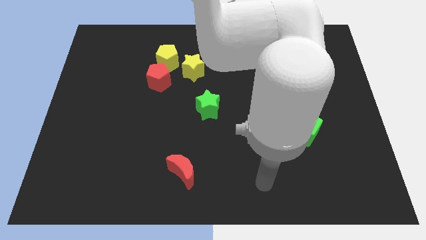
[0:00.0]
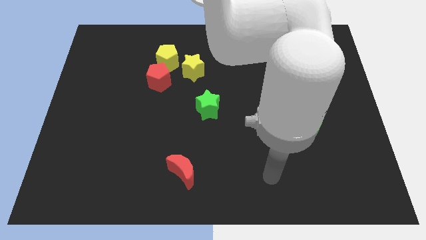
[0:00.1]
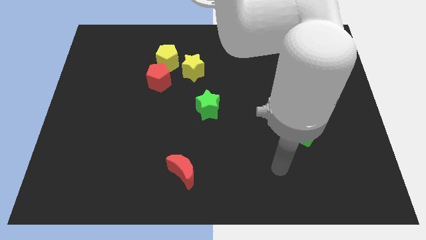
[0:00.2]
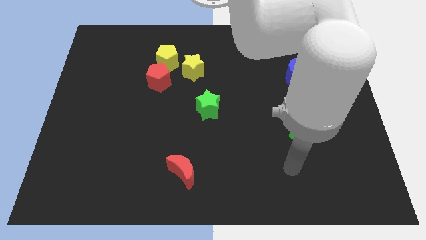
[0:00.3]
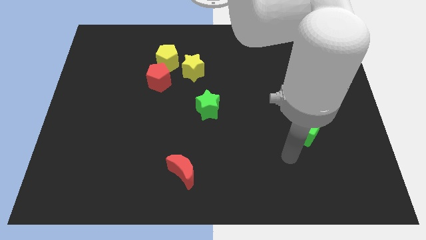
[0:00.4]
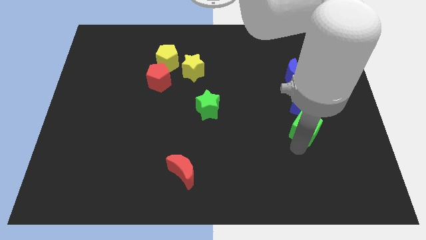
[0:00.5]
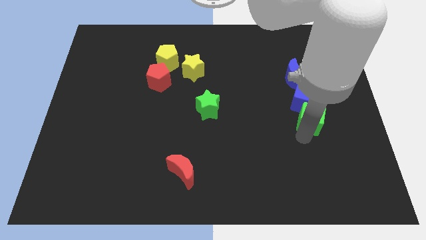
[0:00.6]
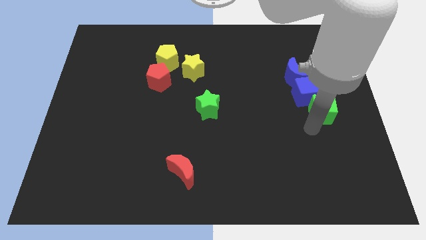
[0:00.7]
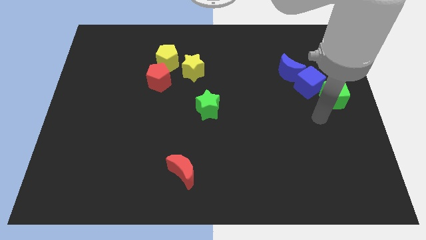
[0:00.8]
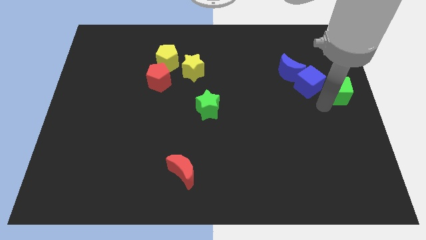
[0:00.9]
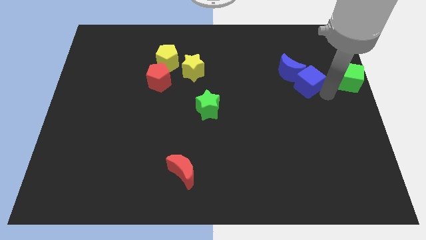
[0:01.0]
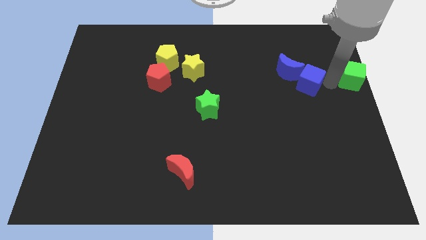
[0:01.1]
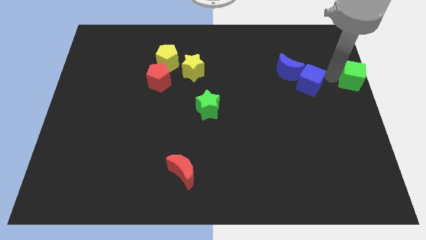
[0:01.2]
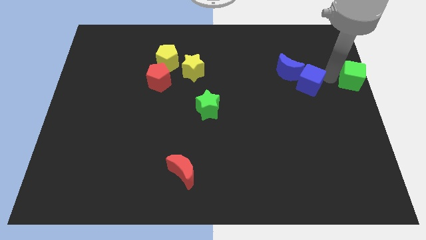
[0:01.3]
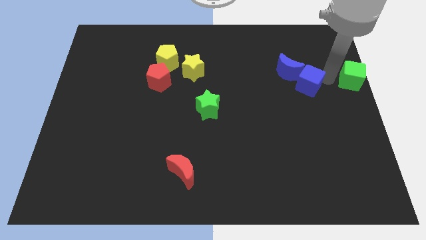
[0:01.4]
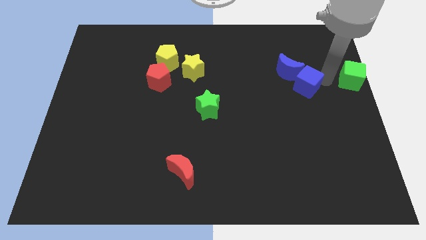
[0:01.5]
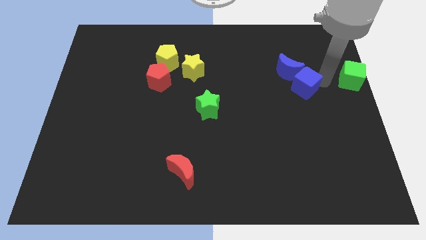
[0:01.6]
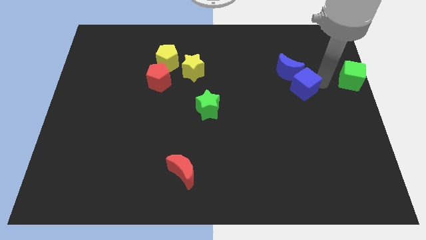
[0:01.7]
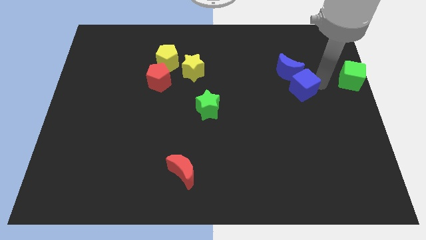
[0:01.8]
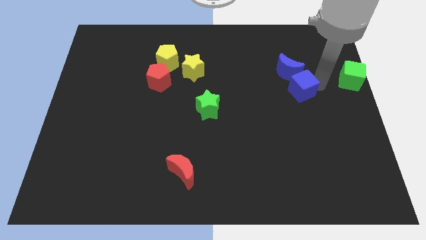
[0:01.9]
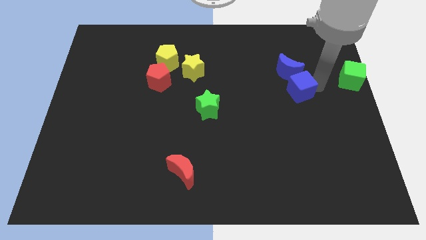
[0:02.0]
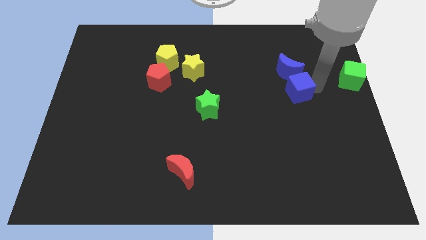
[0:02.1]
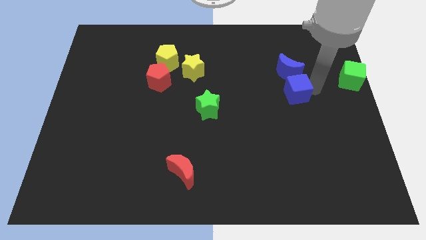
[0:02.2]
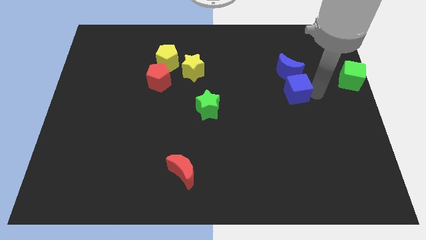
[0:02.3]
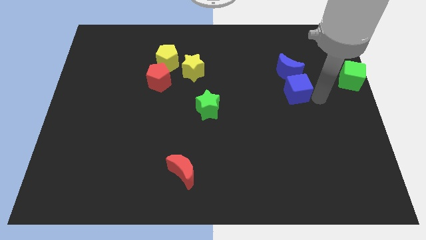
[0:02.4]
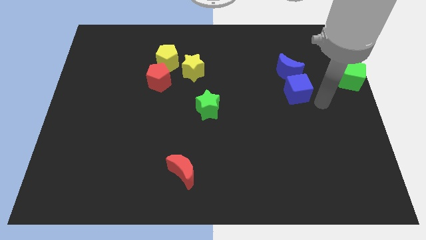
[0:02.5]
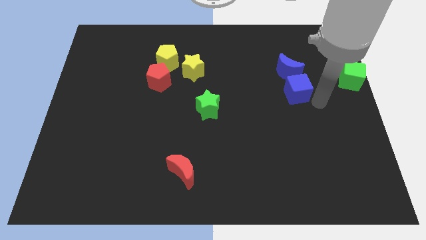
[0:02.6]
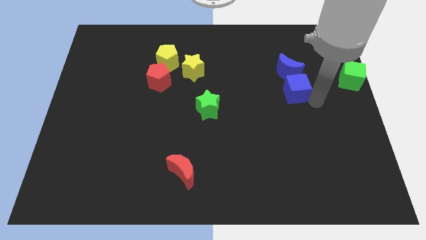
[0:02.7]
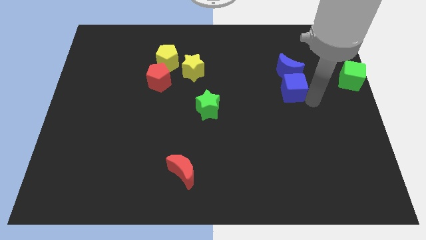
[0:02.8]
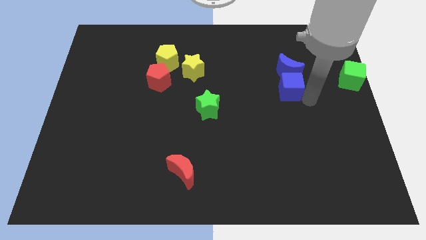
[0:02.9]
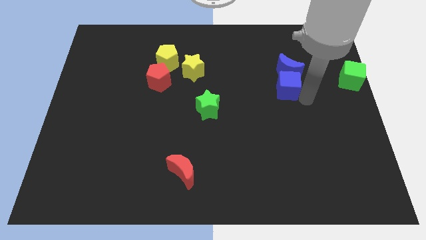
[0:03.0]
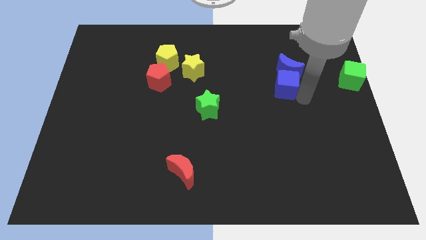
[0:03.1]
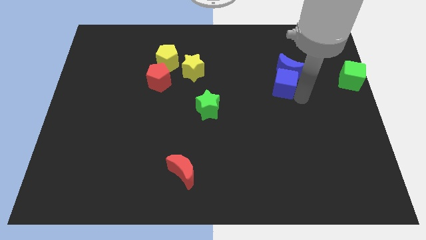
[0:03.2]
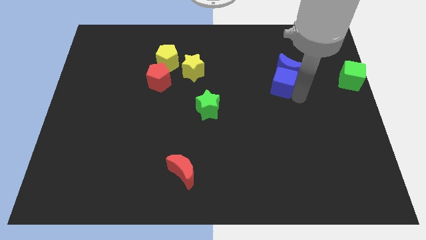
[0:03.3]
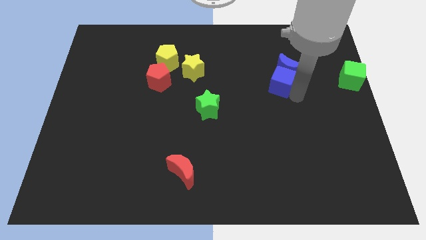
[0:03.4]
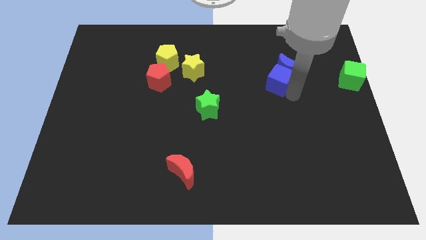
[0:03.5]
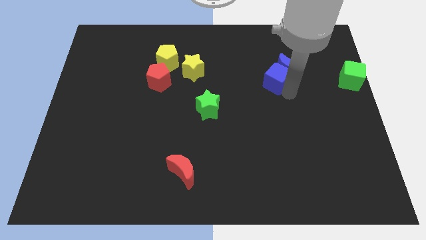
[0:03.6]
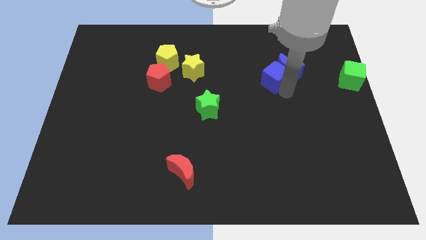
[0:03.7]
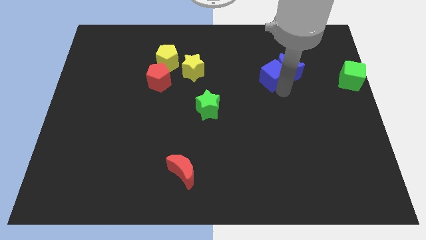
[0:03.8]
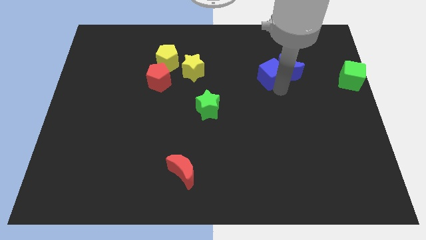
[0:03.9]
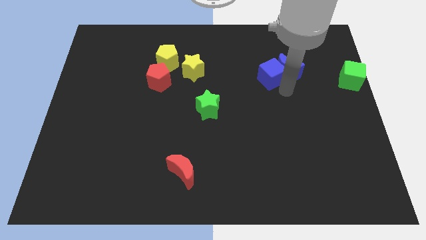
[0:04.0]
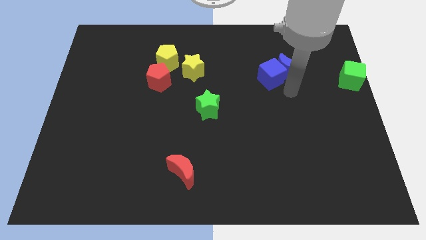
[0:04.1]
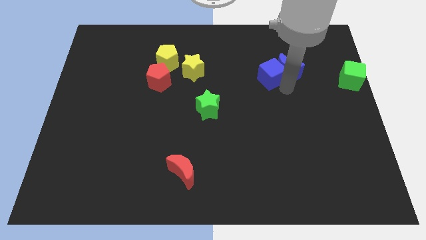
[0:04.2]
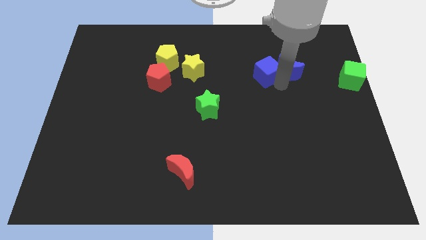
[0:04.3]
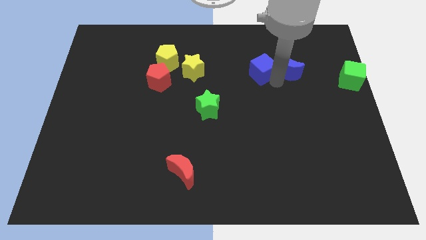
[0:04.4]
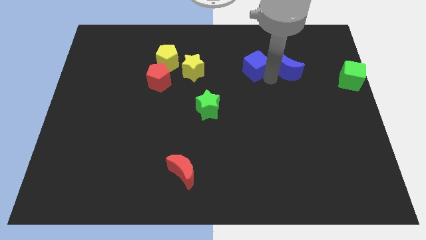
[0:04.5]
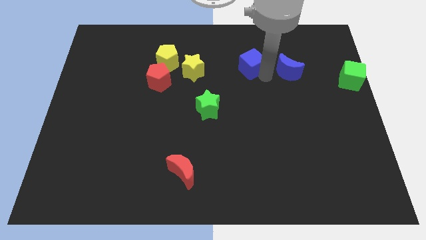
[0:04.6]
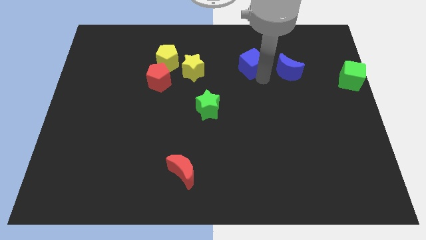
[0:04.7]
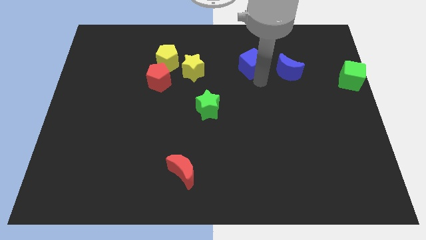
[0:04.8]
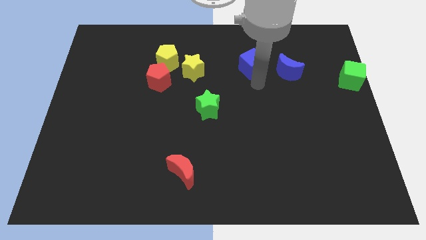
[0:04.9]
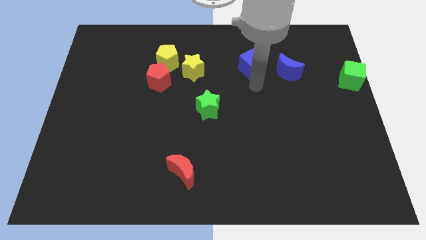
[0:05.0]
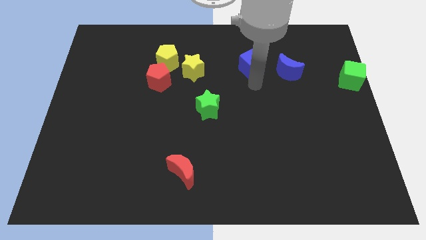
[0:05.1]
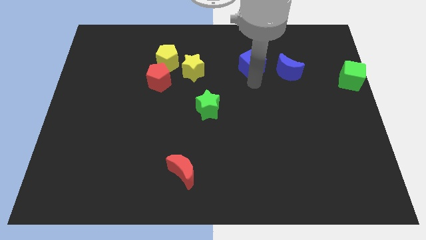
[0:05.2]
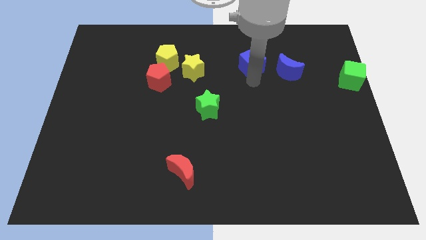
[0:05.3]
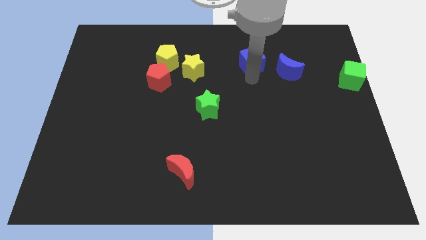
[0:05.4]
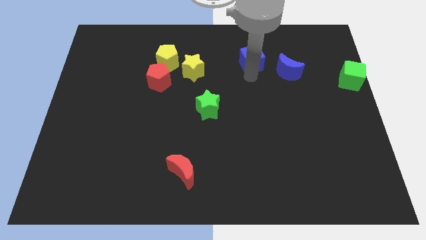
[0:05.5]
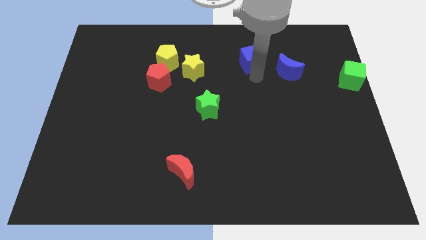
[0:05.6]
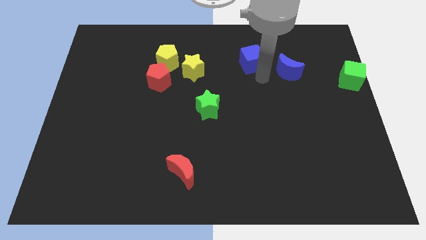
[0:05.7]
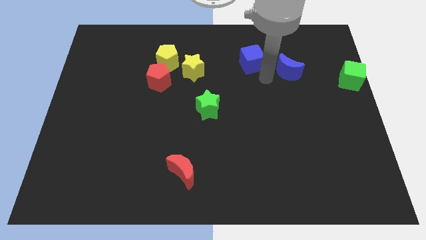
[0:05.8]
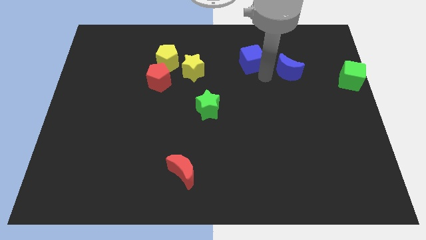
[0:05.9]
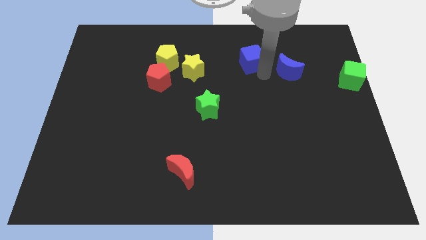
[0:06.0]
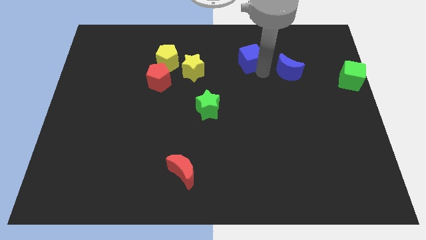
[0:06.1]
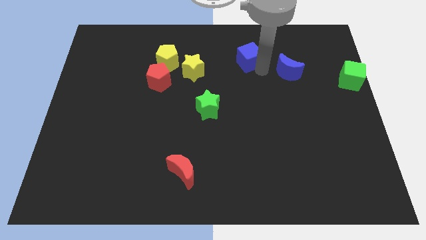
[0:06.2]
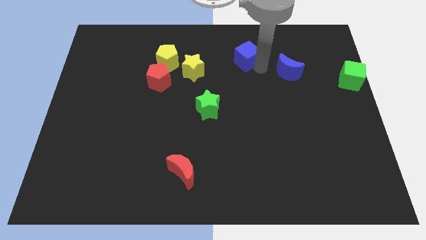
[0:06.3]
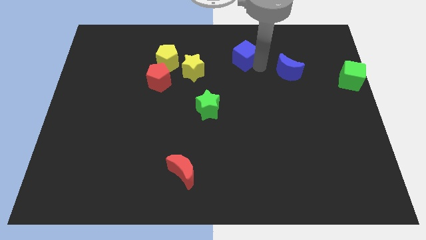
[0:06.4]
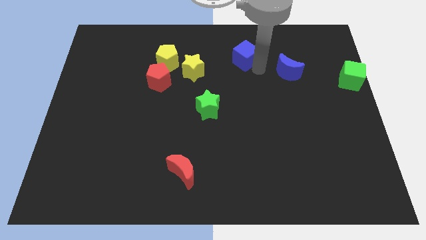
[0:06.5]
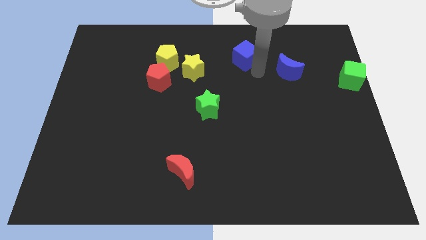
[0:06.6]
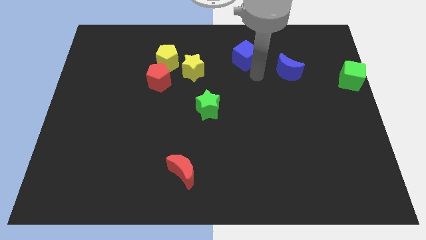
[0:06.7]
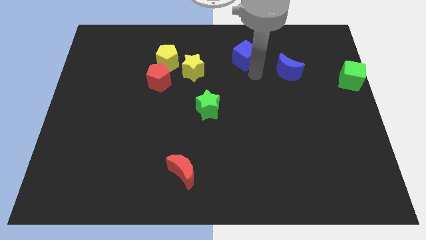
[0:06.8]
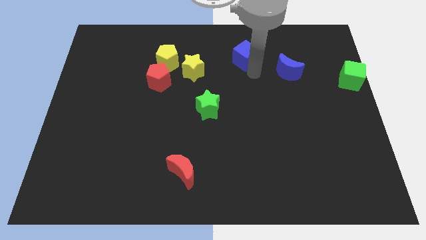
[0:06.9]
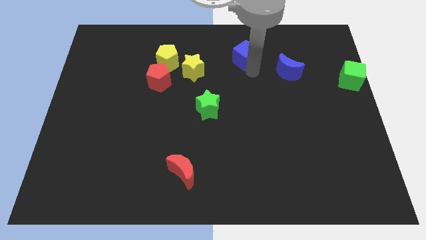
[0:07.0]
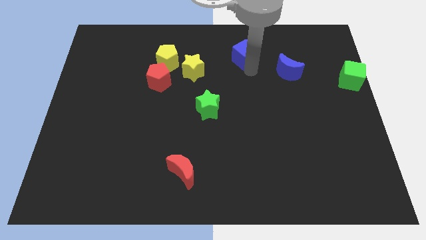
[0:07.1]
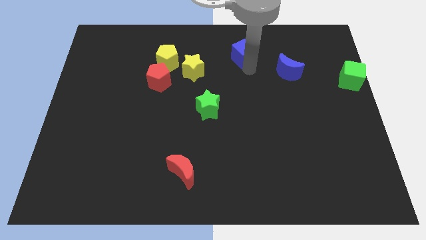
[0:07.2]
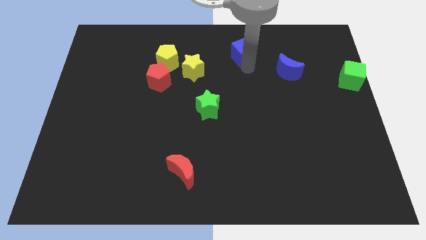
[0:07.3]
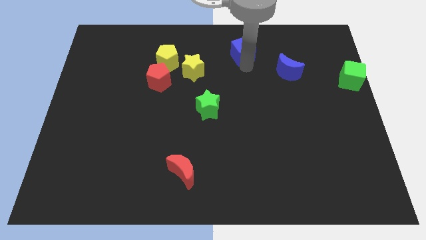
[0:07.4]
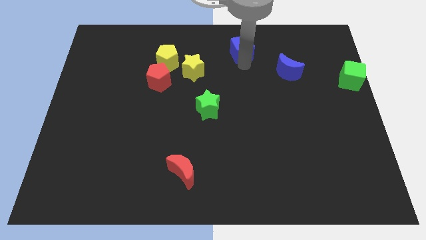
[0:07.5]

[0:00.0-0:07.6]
put the blue cube to the towards your base
